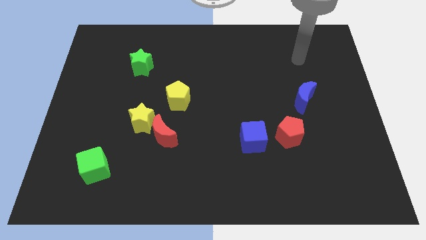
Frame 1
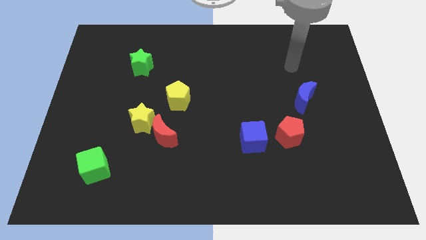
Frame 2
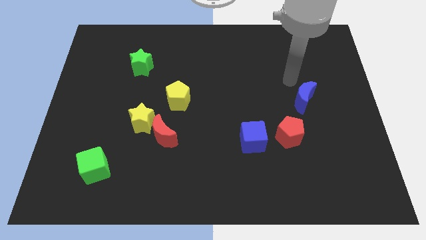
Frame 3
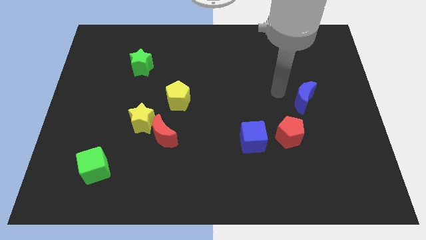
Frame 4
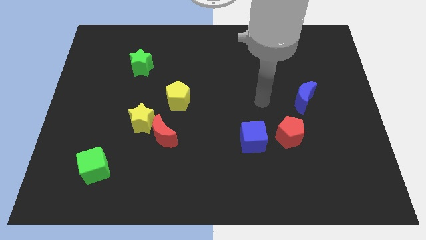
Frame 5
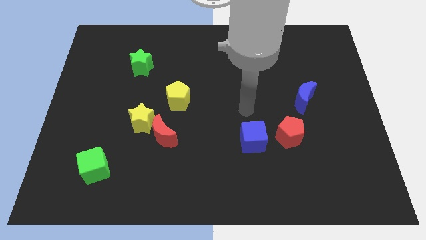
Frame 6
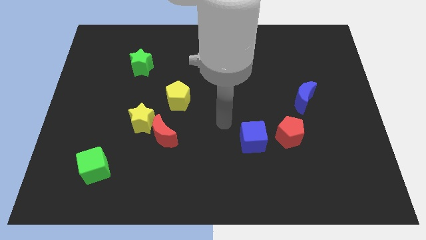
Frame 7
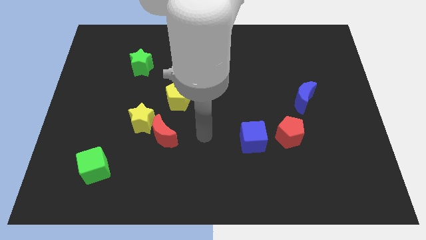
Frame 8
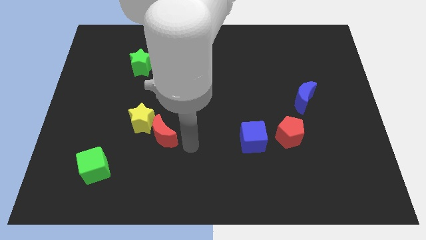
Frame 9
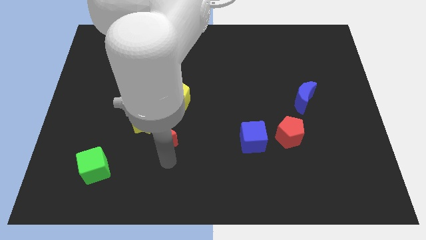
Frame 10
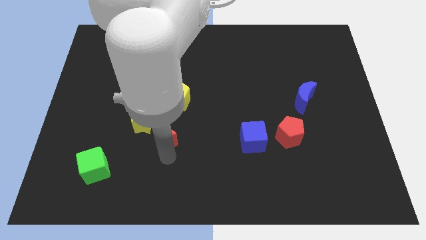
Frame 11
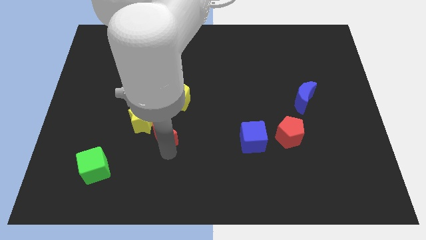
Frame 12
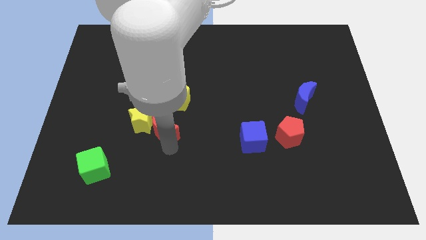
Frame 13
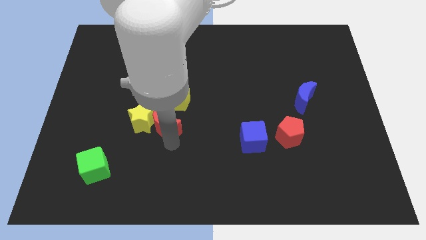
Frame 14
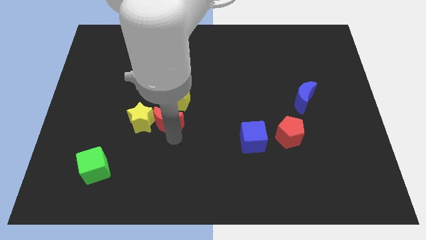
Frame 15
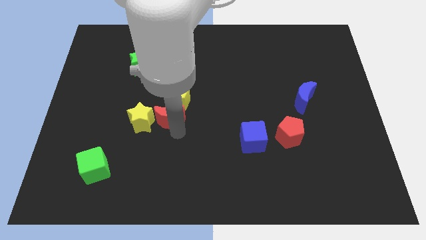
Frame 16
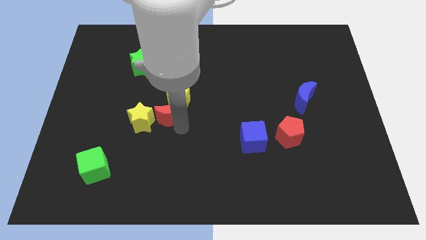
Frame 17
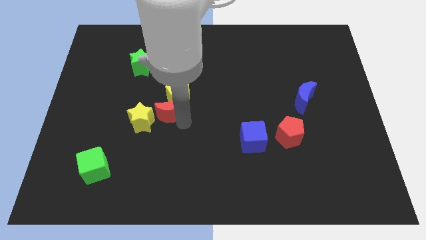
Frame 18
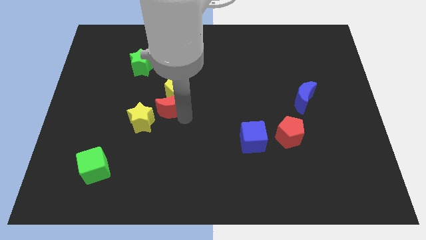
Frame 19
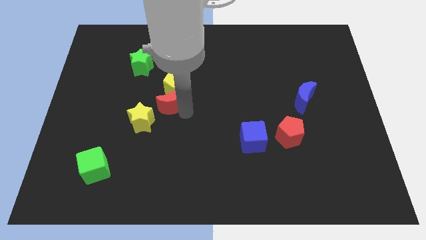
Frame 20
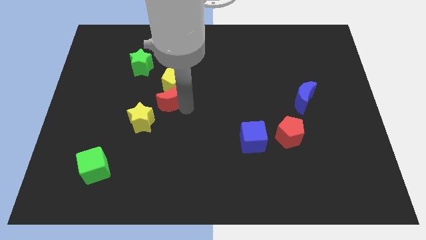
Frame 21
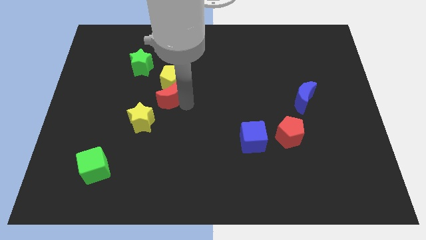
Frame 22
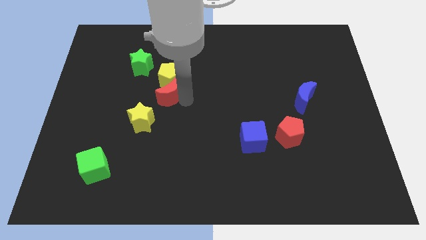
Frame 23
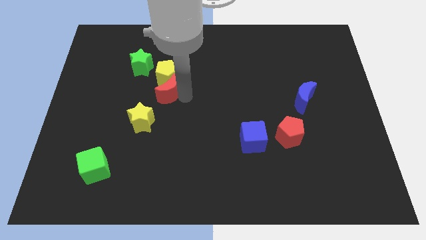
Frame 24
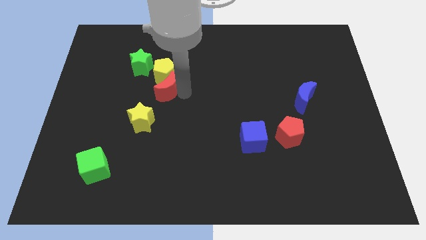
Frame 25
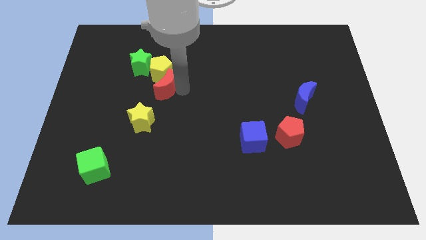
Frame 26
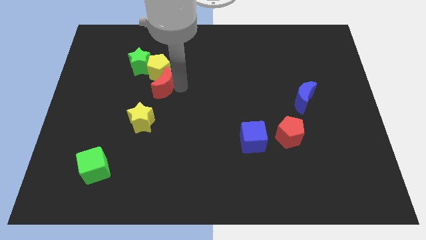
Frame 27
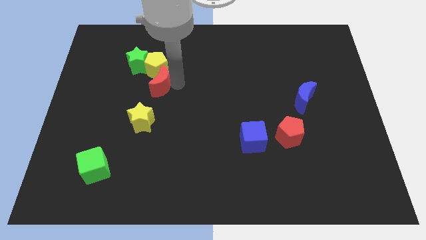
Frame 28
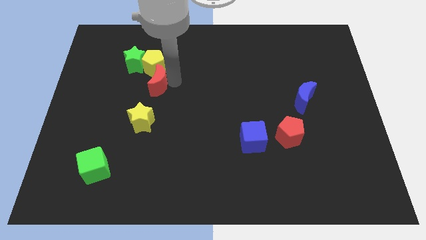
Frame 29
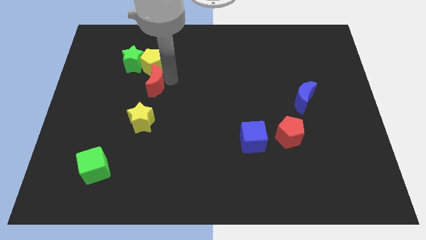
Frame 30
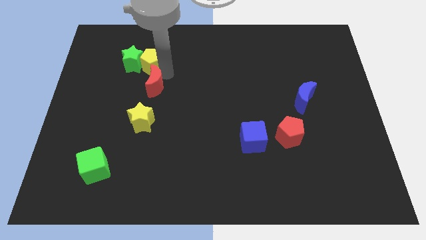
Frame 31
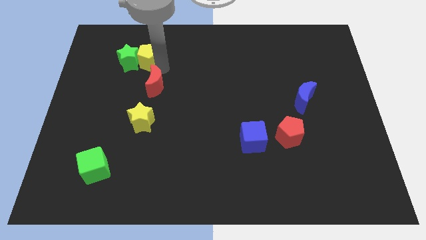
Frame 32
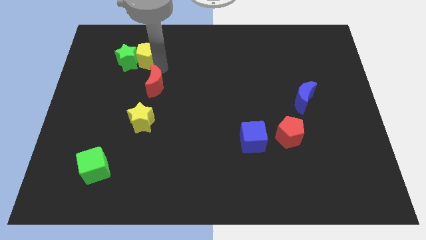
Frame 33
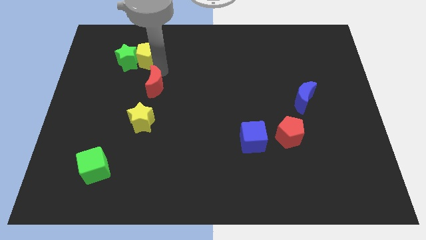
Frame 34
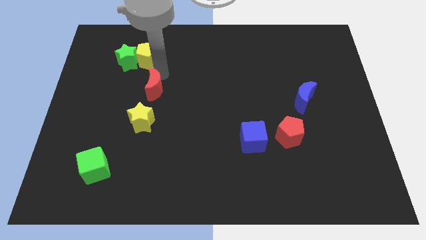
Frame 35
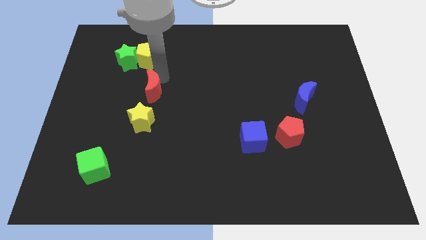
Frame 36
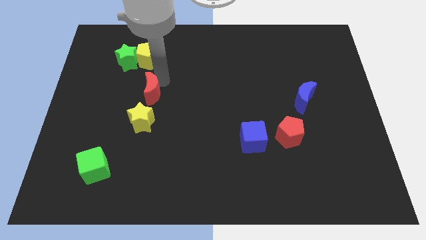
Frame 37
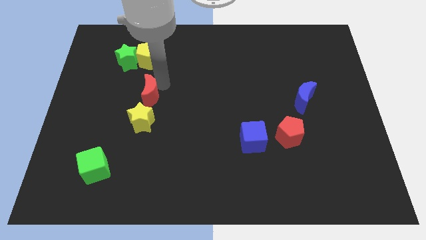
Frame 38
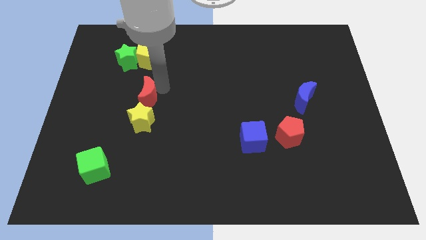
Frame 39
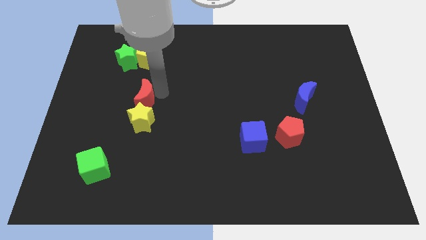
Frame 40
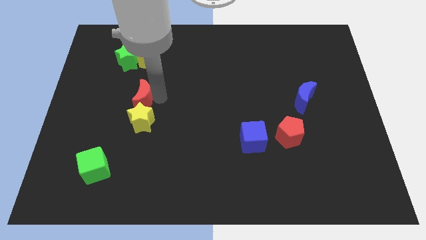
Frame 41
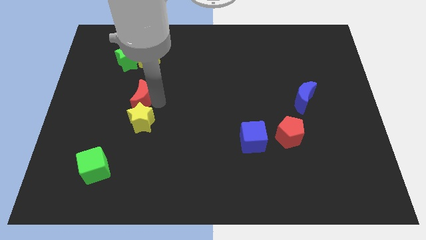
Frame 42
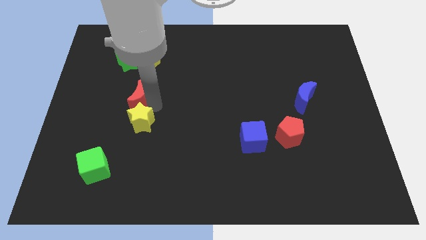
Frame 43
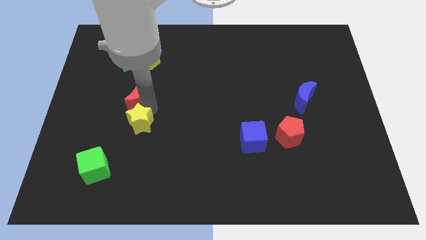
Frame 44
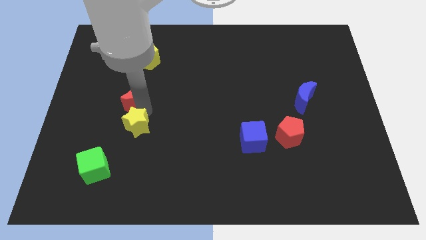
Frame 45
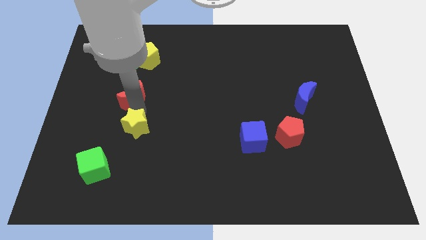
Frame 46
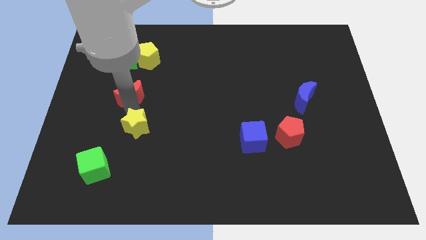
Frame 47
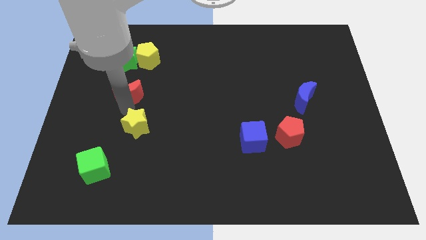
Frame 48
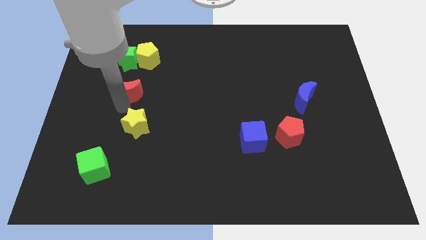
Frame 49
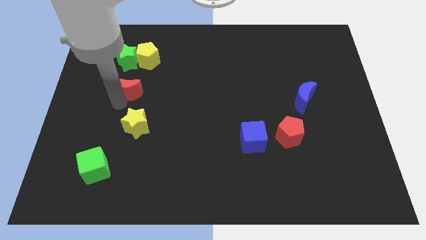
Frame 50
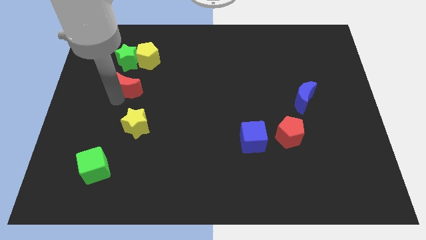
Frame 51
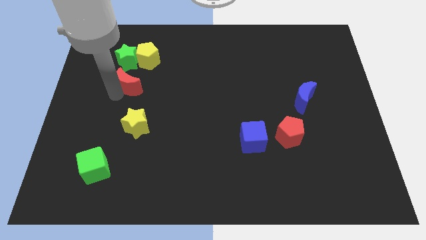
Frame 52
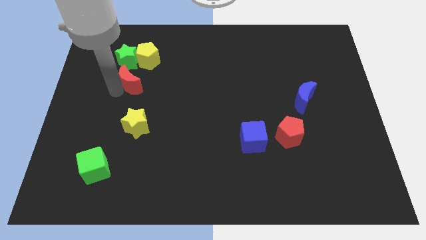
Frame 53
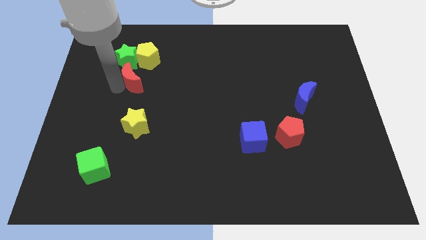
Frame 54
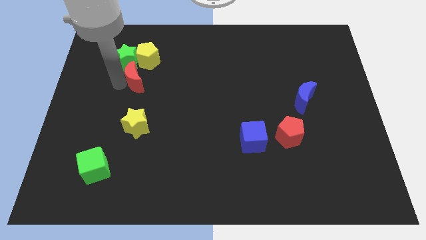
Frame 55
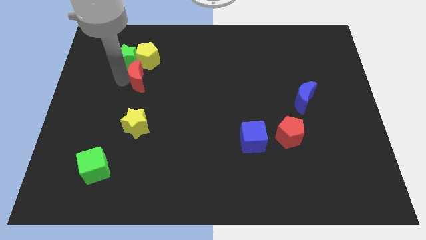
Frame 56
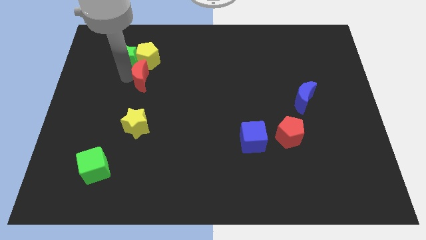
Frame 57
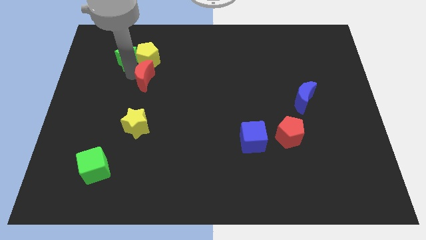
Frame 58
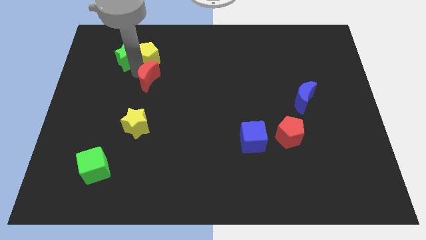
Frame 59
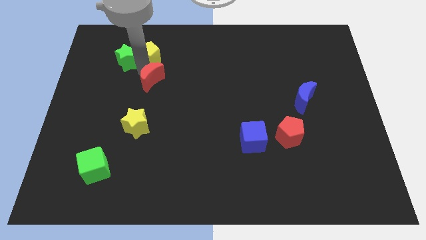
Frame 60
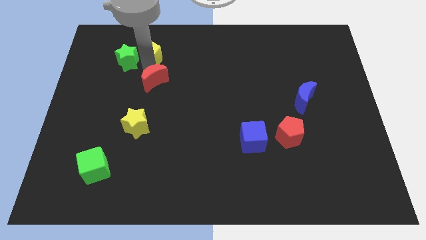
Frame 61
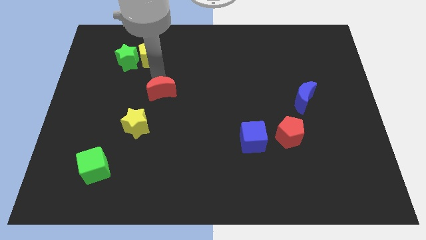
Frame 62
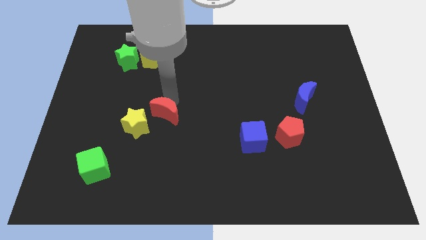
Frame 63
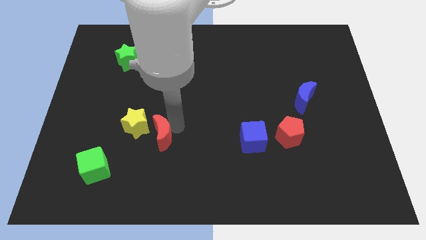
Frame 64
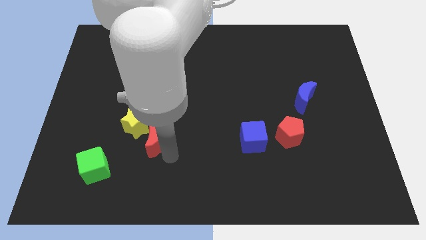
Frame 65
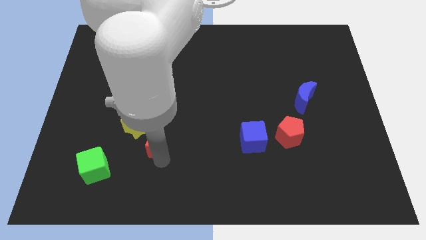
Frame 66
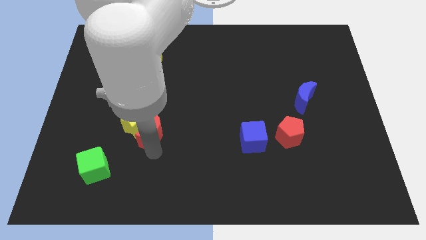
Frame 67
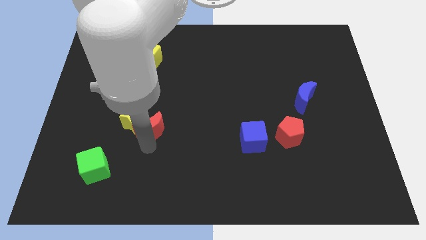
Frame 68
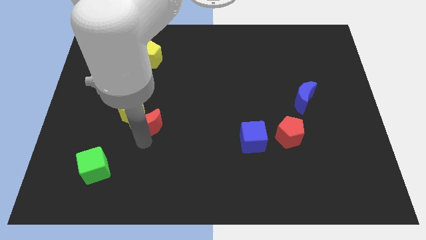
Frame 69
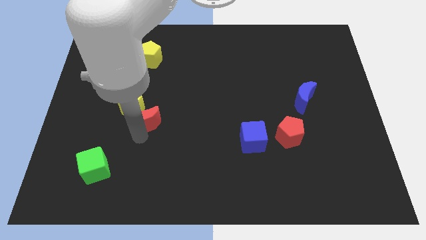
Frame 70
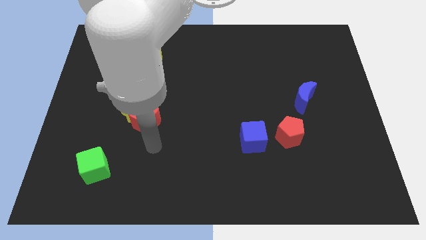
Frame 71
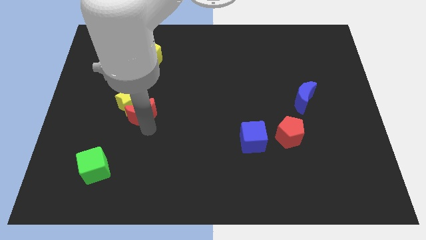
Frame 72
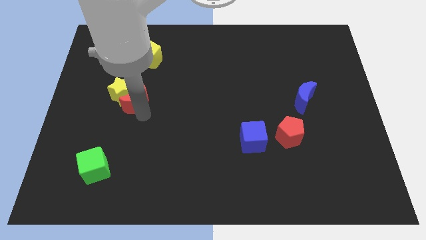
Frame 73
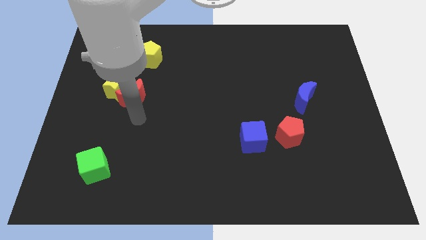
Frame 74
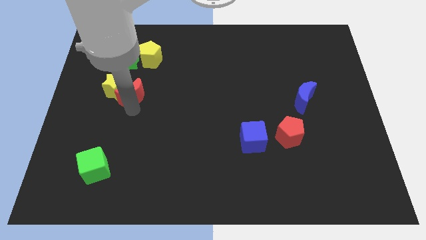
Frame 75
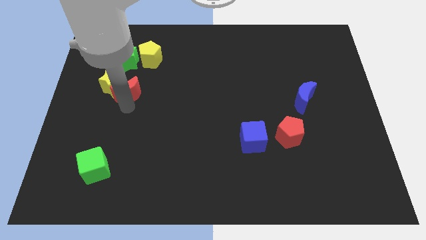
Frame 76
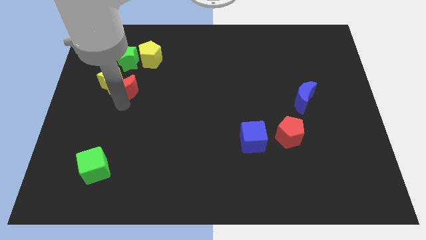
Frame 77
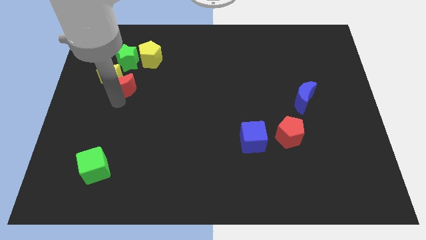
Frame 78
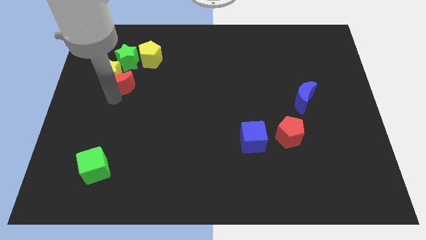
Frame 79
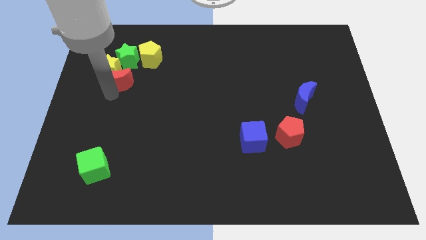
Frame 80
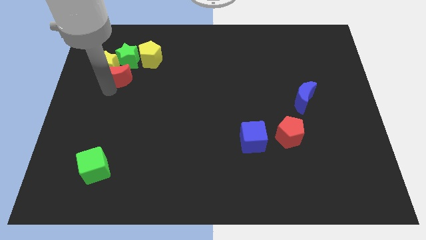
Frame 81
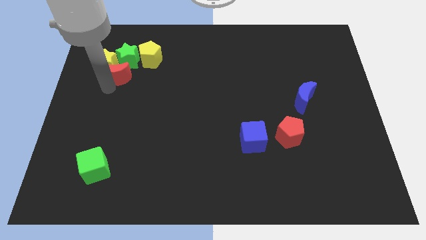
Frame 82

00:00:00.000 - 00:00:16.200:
put the red moon close to the green star
